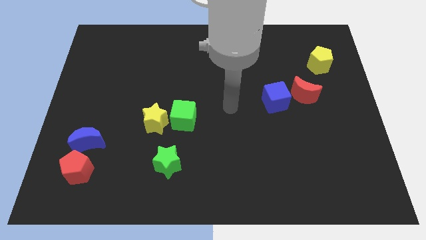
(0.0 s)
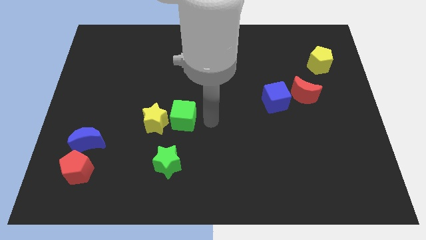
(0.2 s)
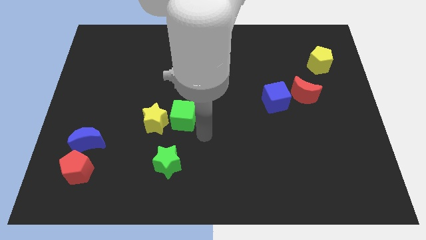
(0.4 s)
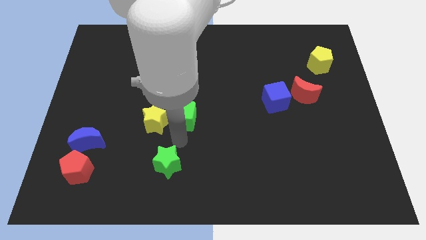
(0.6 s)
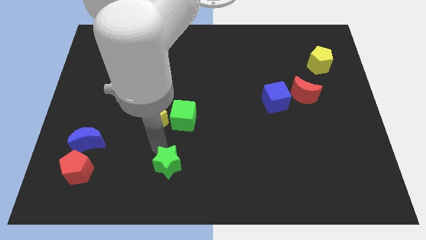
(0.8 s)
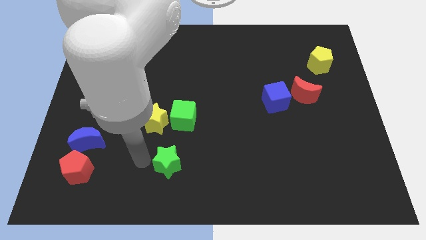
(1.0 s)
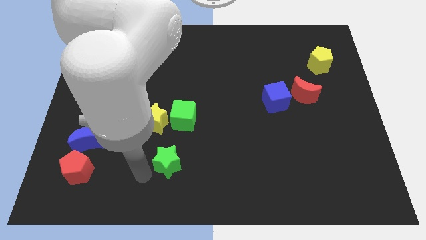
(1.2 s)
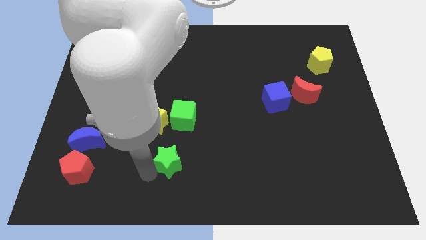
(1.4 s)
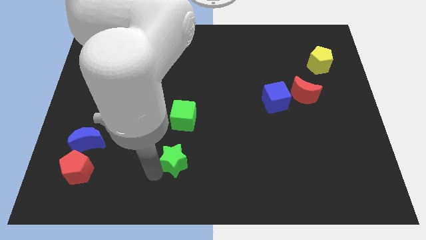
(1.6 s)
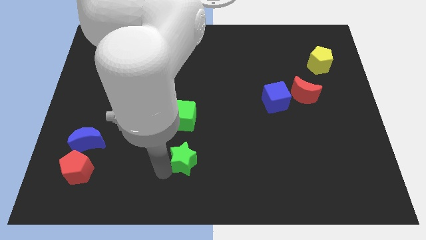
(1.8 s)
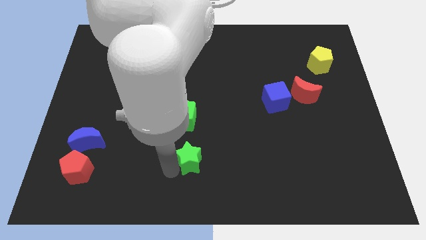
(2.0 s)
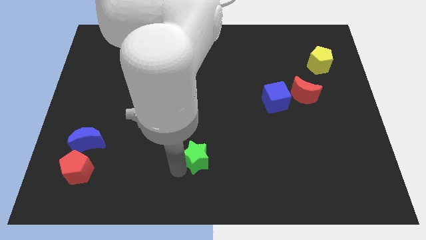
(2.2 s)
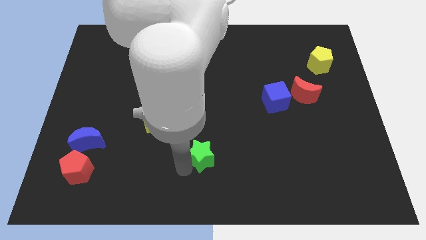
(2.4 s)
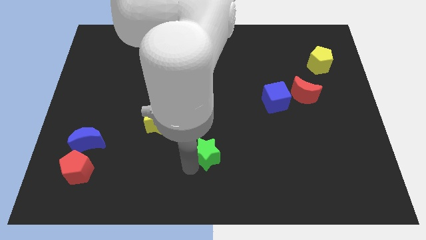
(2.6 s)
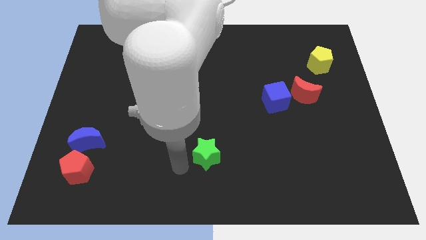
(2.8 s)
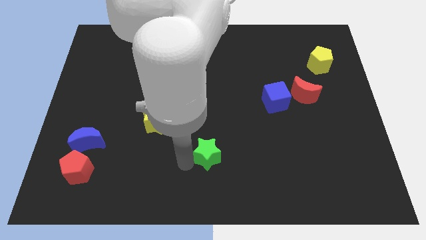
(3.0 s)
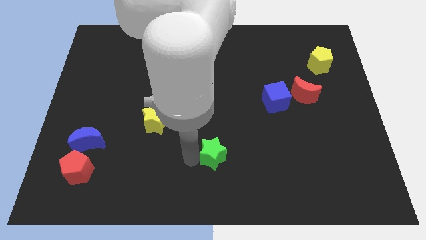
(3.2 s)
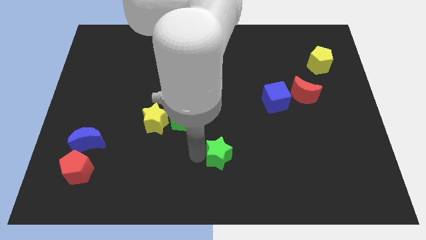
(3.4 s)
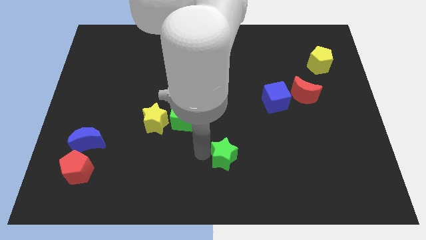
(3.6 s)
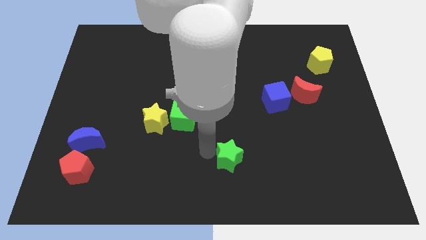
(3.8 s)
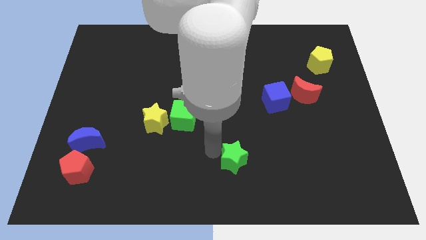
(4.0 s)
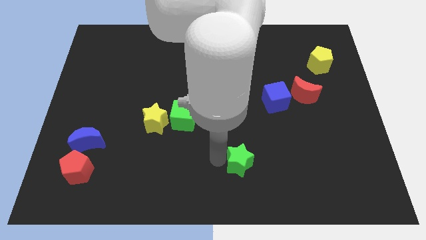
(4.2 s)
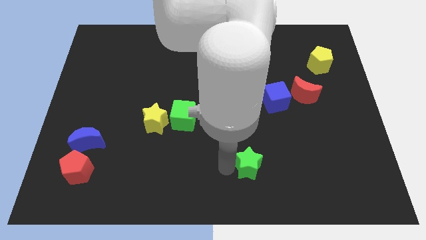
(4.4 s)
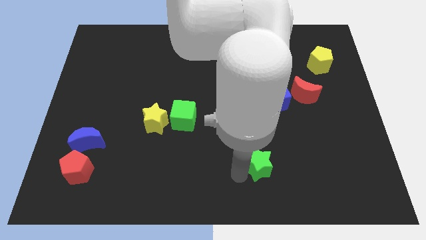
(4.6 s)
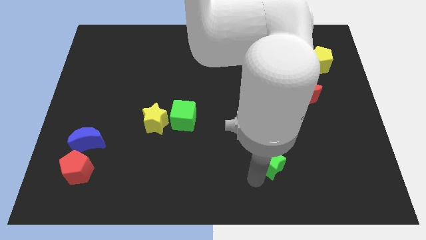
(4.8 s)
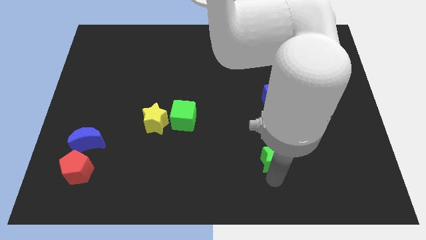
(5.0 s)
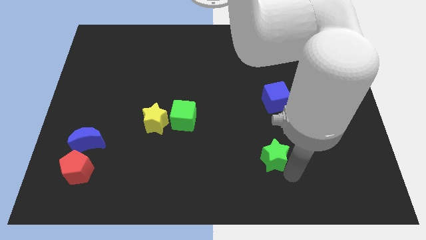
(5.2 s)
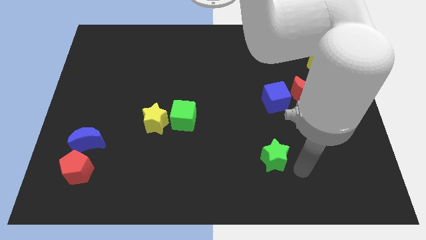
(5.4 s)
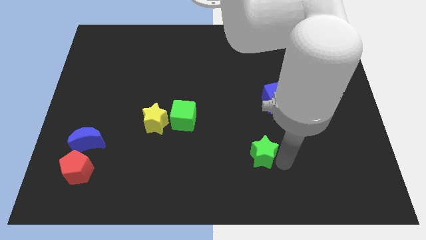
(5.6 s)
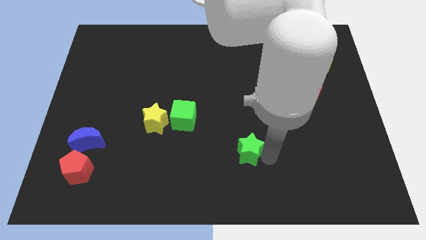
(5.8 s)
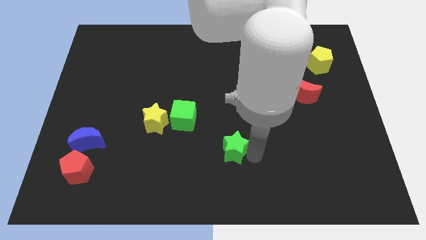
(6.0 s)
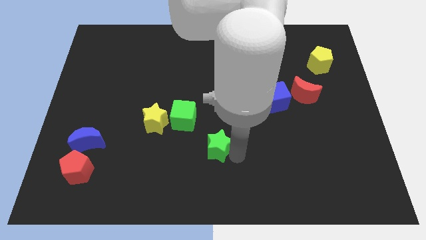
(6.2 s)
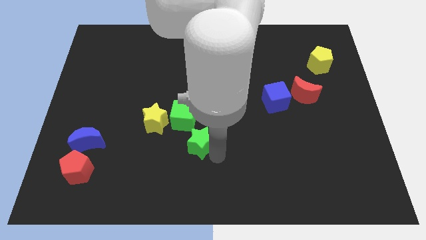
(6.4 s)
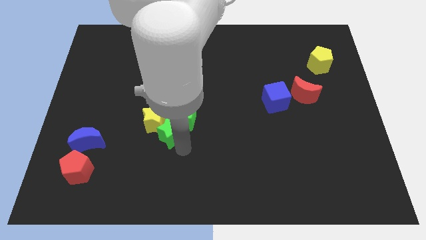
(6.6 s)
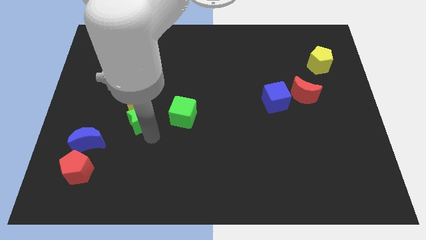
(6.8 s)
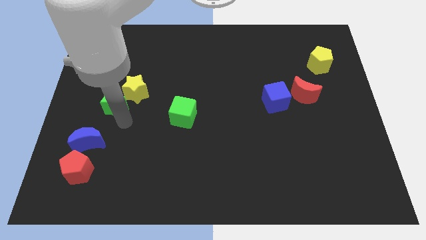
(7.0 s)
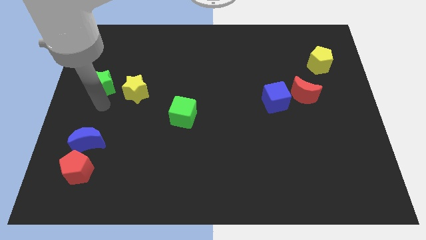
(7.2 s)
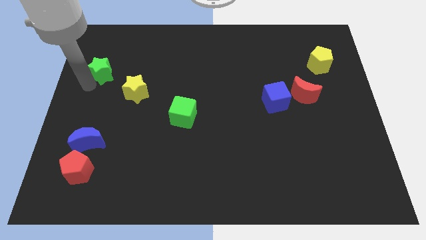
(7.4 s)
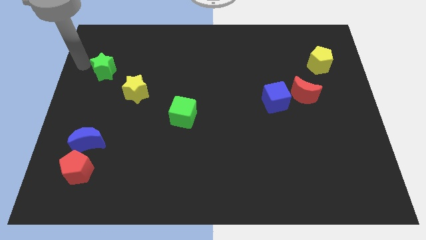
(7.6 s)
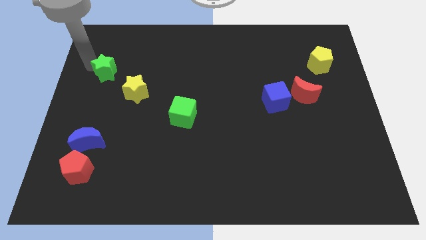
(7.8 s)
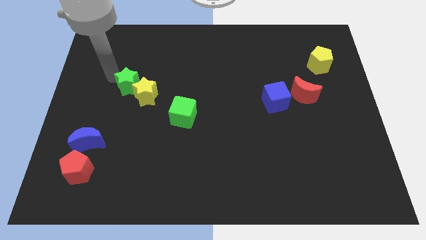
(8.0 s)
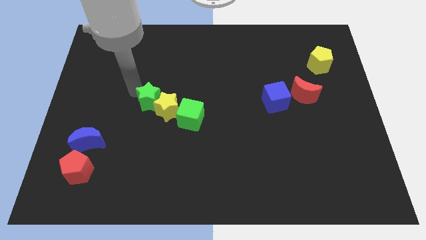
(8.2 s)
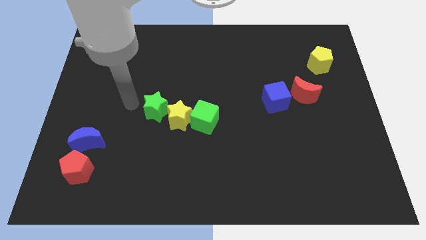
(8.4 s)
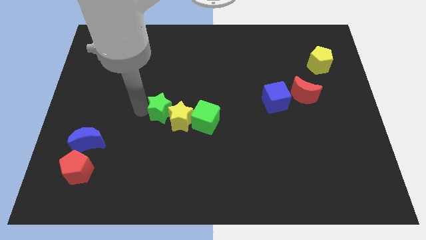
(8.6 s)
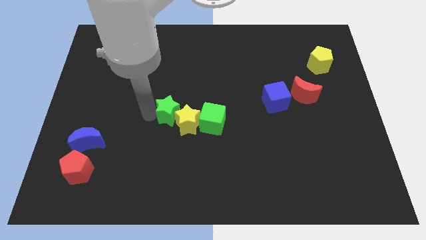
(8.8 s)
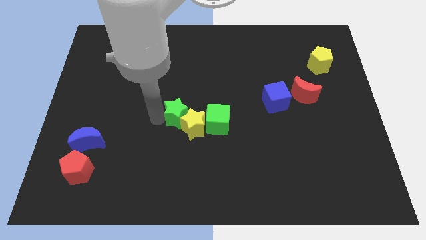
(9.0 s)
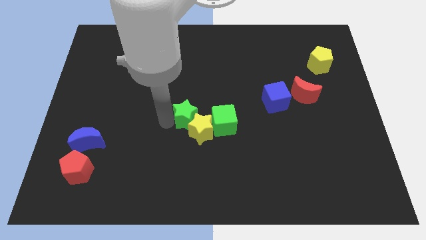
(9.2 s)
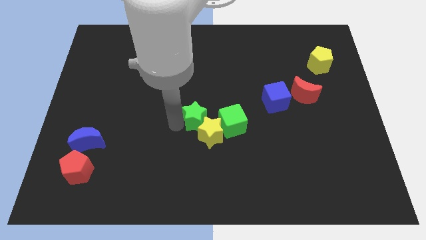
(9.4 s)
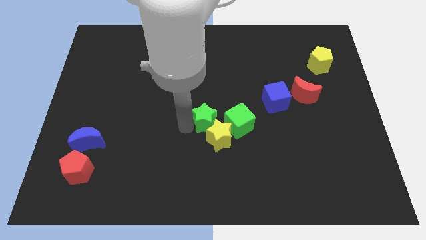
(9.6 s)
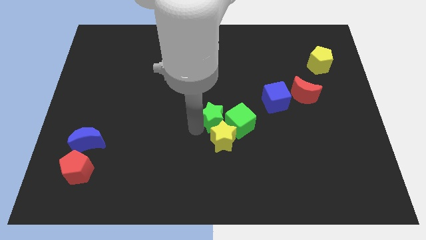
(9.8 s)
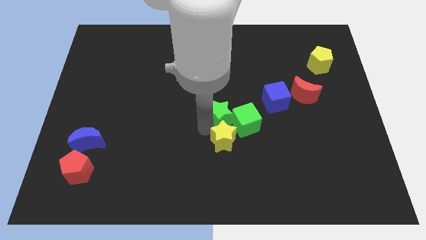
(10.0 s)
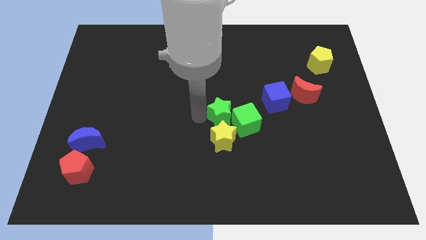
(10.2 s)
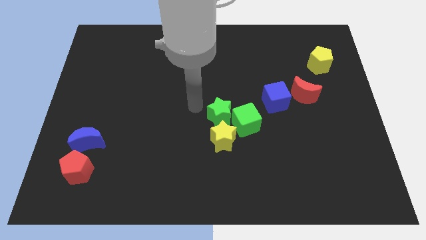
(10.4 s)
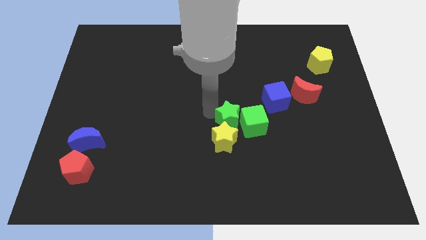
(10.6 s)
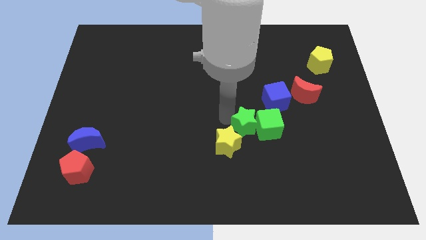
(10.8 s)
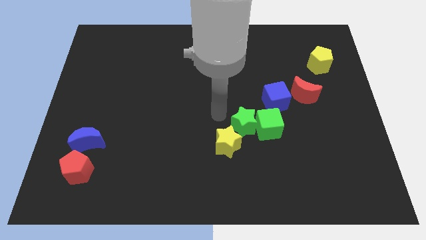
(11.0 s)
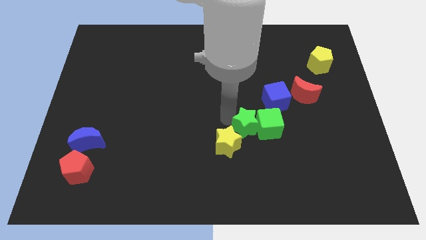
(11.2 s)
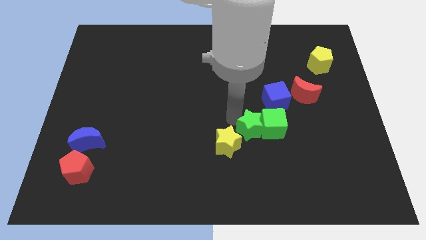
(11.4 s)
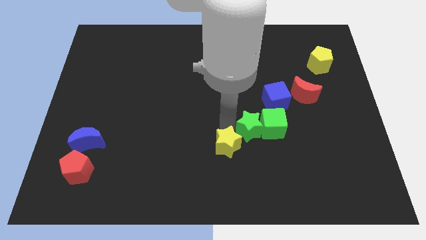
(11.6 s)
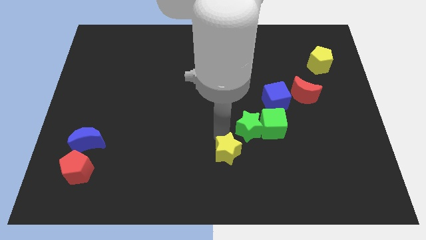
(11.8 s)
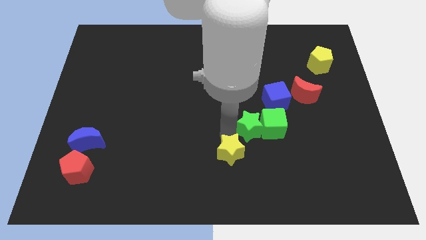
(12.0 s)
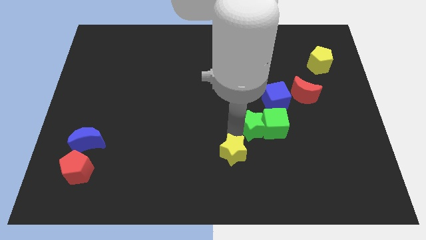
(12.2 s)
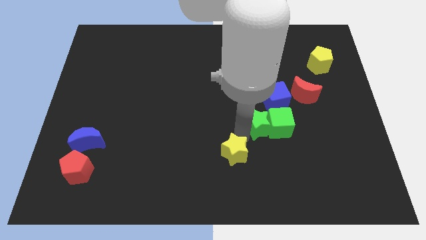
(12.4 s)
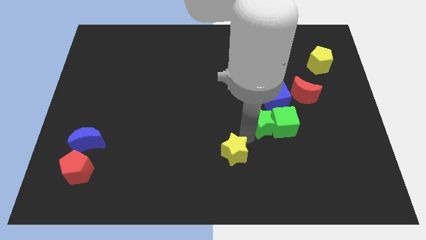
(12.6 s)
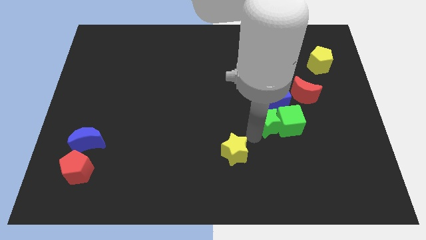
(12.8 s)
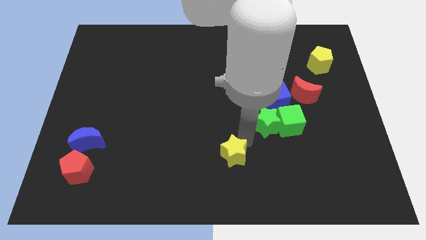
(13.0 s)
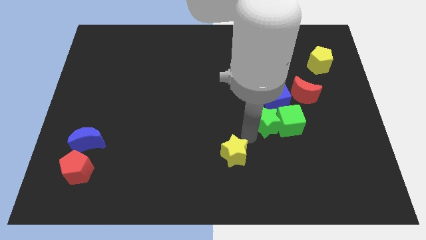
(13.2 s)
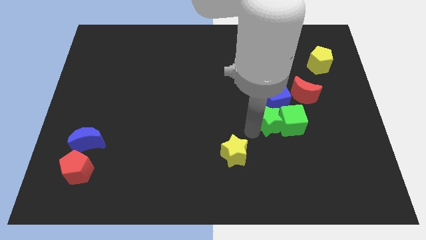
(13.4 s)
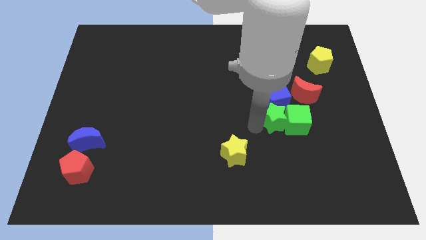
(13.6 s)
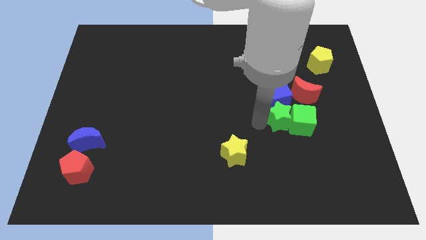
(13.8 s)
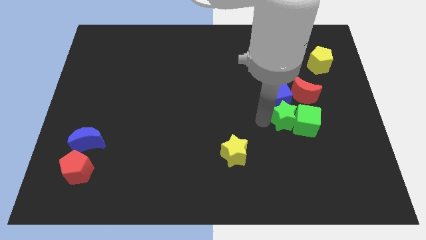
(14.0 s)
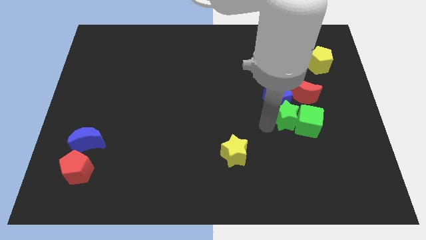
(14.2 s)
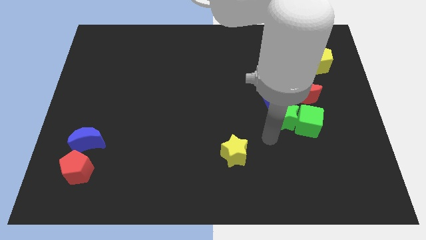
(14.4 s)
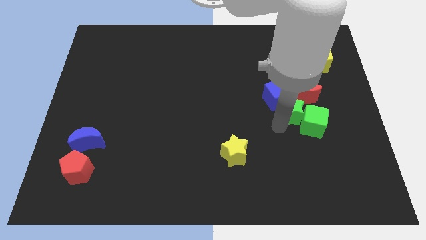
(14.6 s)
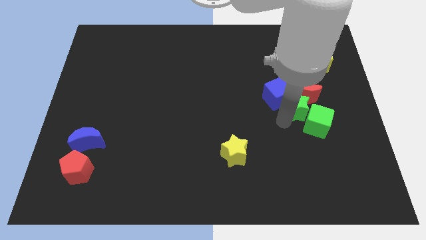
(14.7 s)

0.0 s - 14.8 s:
move the green star to the red moon

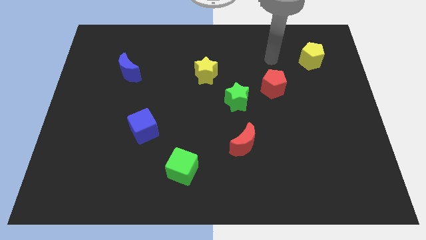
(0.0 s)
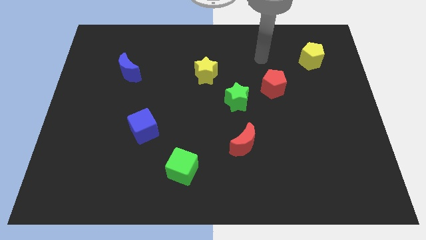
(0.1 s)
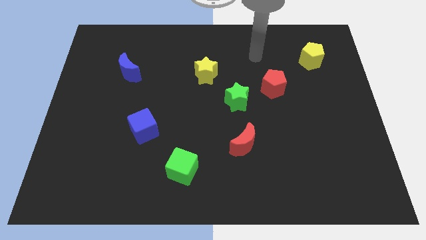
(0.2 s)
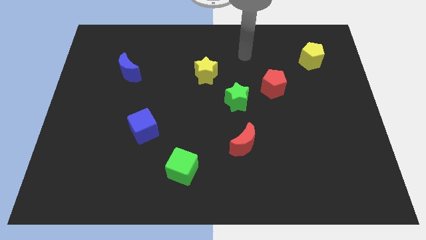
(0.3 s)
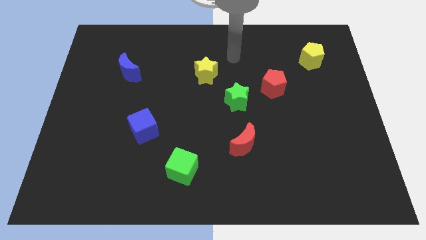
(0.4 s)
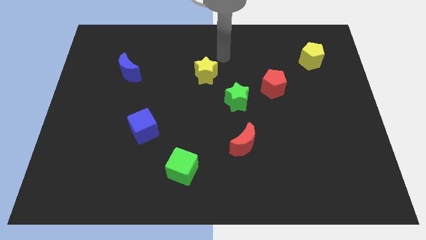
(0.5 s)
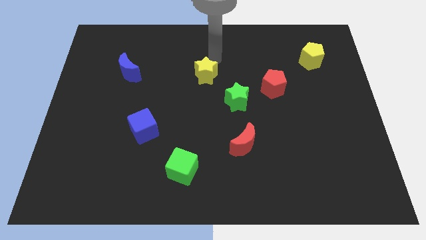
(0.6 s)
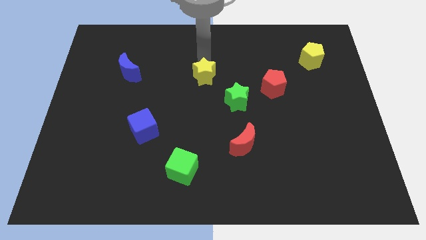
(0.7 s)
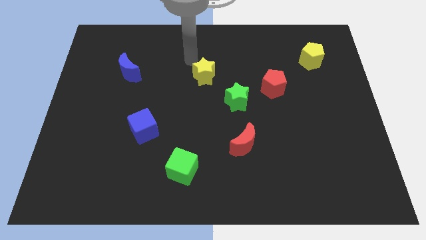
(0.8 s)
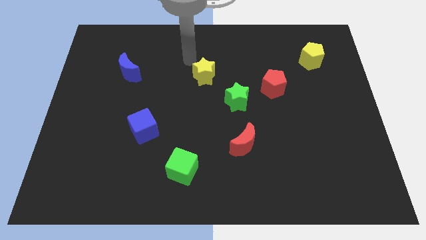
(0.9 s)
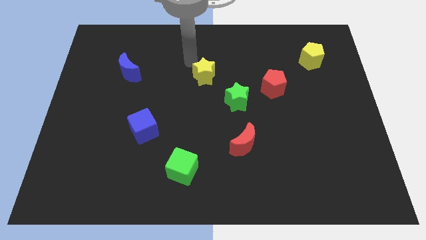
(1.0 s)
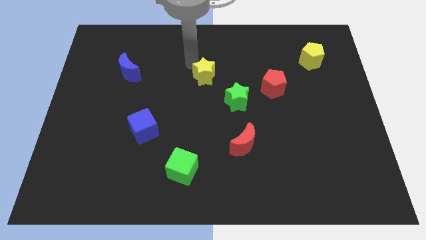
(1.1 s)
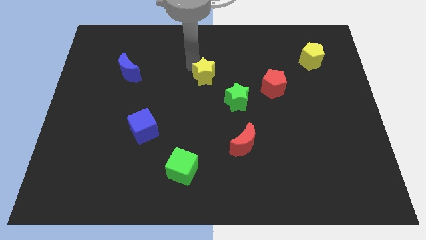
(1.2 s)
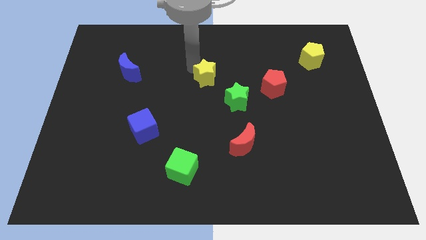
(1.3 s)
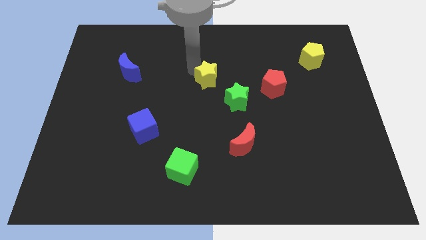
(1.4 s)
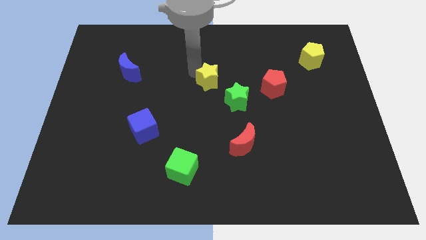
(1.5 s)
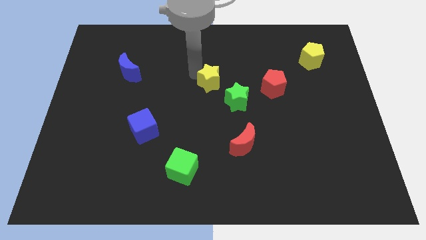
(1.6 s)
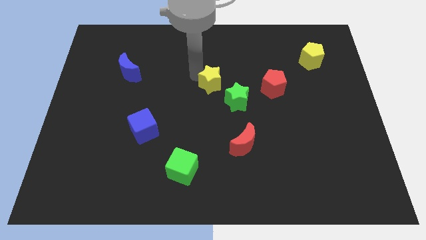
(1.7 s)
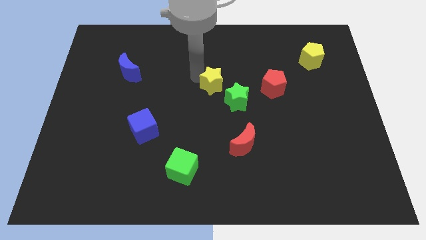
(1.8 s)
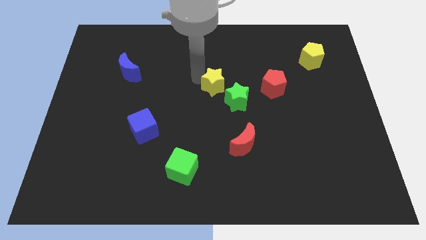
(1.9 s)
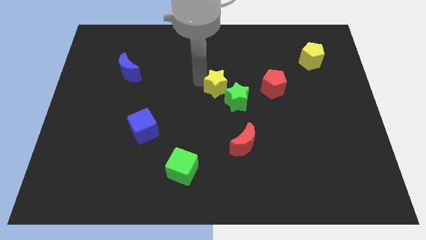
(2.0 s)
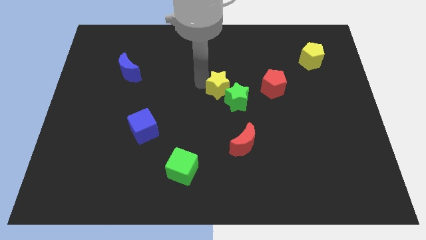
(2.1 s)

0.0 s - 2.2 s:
push the yellow star towards the green star
